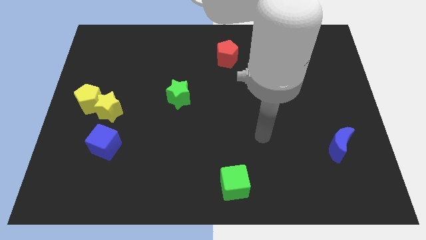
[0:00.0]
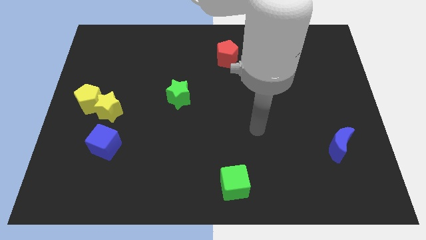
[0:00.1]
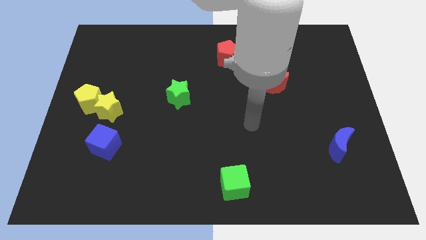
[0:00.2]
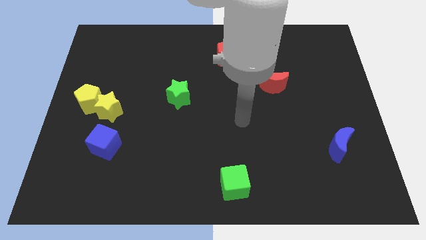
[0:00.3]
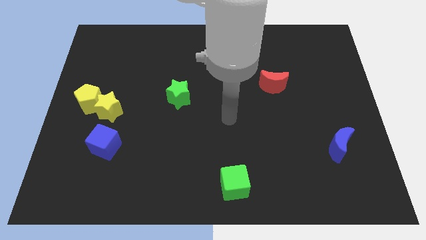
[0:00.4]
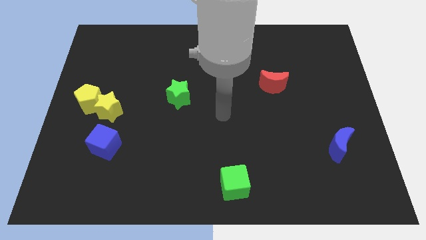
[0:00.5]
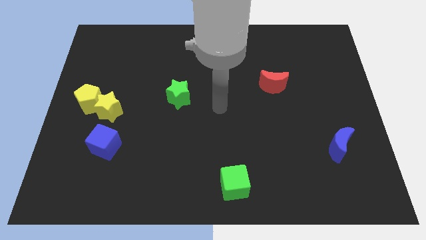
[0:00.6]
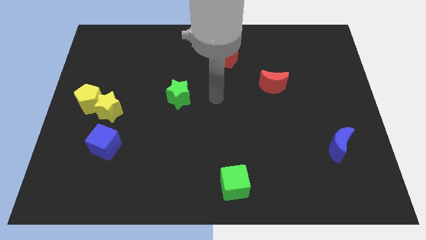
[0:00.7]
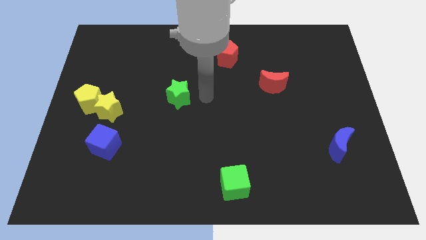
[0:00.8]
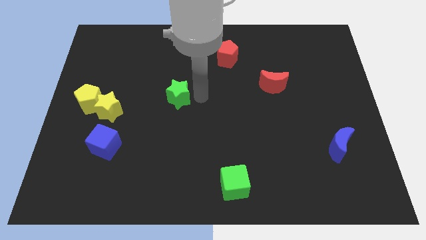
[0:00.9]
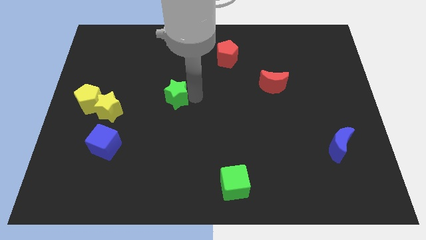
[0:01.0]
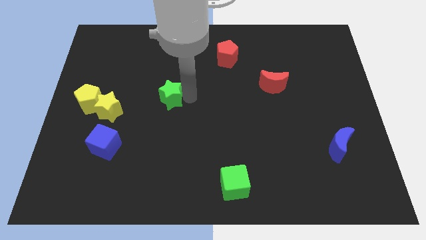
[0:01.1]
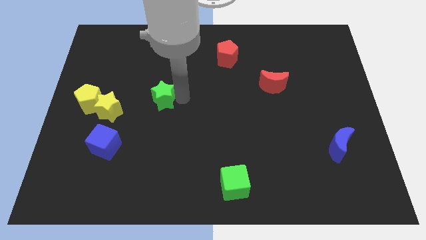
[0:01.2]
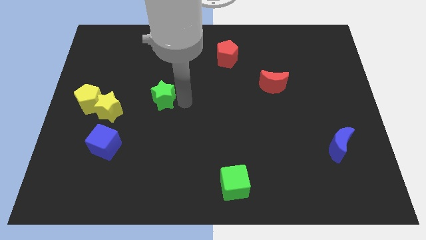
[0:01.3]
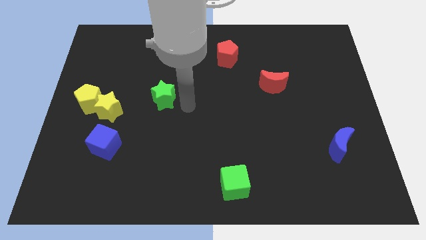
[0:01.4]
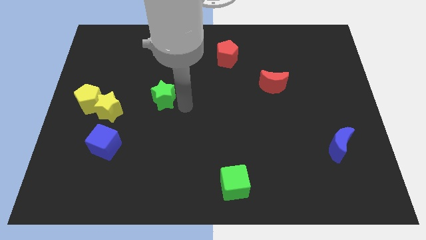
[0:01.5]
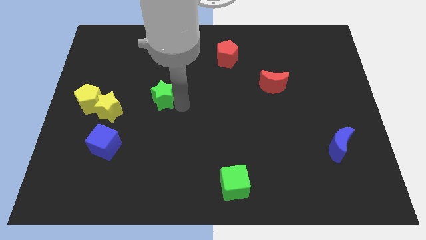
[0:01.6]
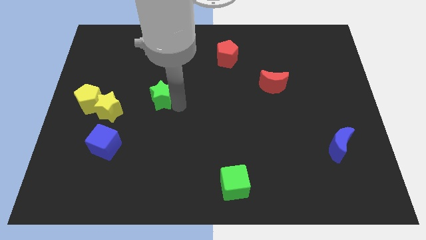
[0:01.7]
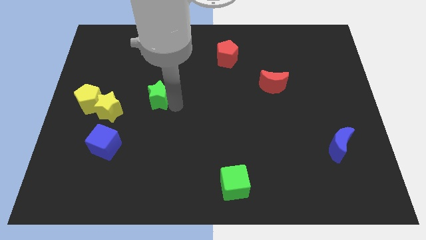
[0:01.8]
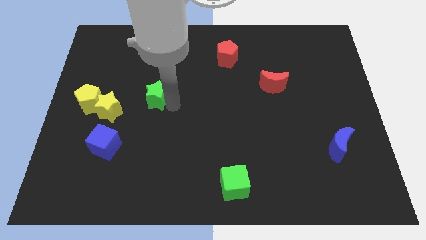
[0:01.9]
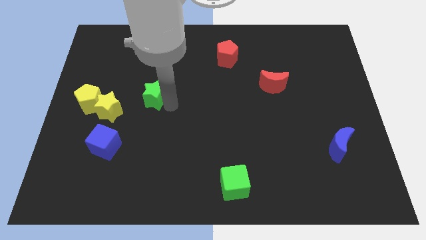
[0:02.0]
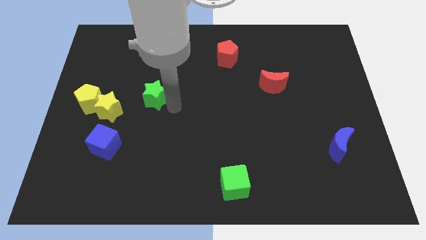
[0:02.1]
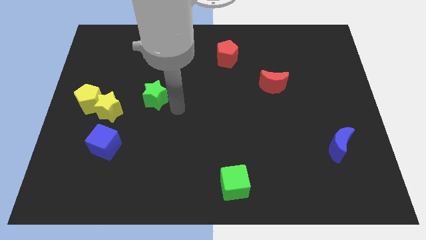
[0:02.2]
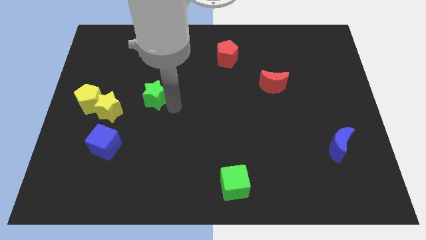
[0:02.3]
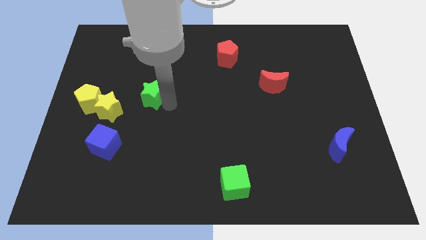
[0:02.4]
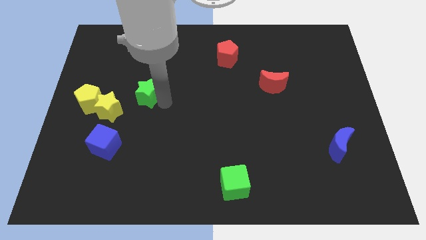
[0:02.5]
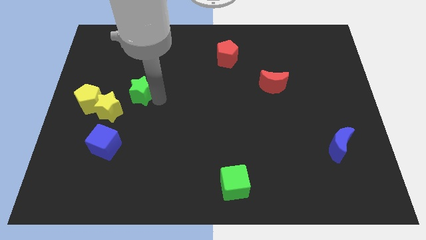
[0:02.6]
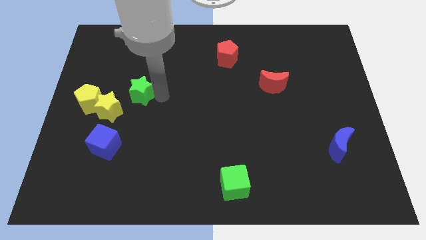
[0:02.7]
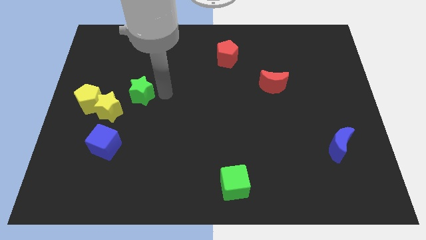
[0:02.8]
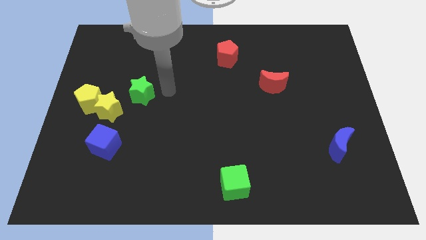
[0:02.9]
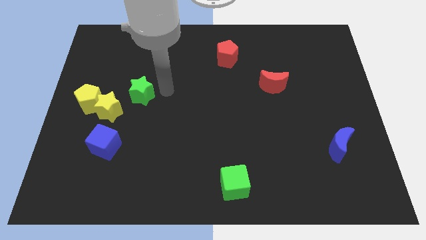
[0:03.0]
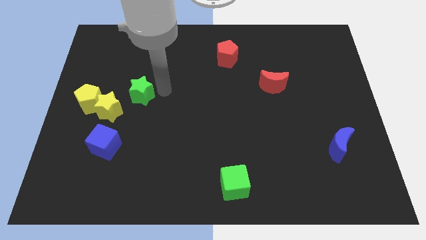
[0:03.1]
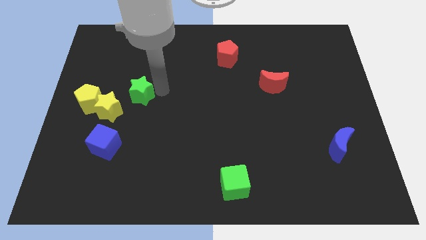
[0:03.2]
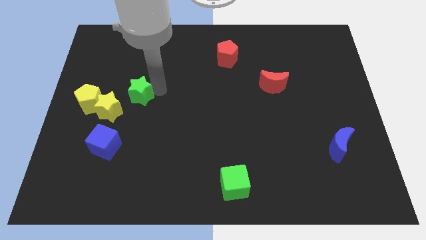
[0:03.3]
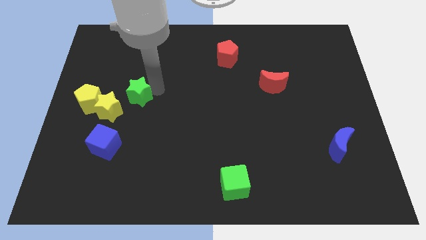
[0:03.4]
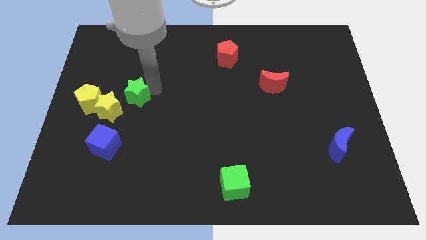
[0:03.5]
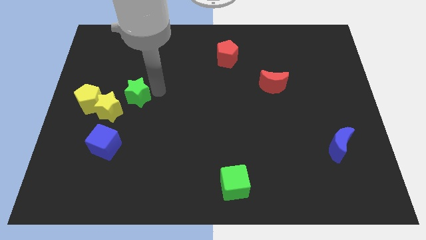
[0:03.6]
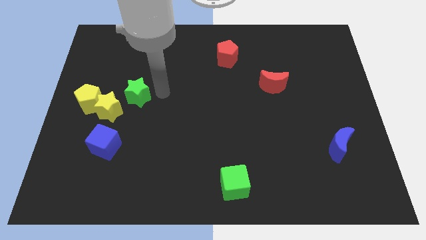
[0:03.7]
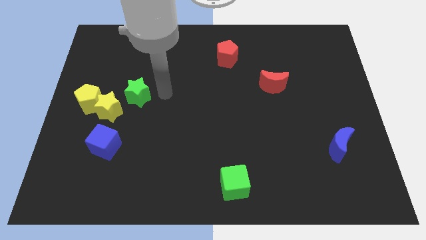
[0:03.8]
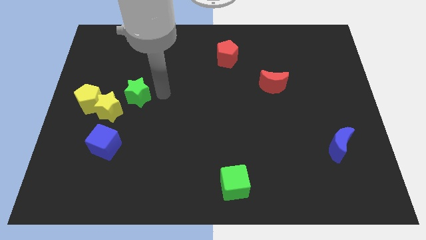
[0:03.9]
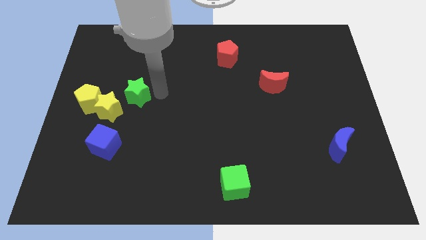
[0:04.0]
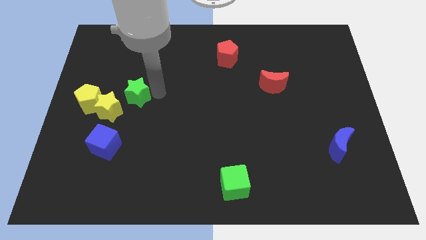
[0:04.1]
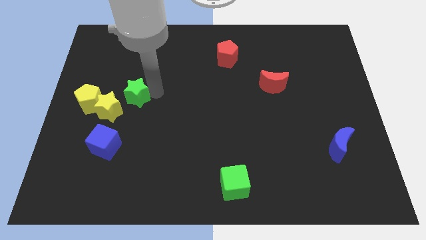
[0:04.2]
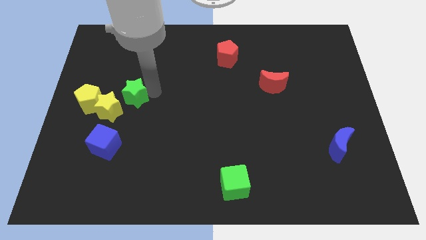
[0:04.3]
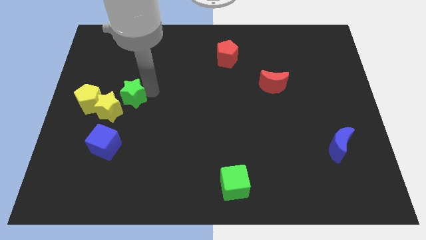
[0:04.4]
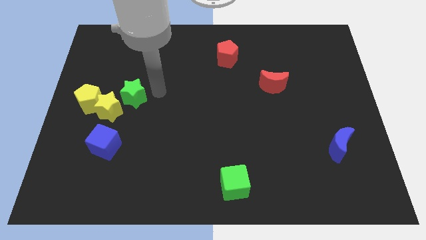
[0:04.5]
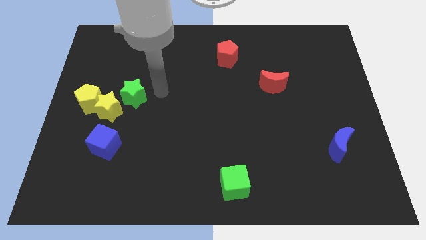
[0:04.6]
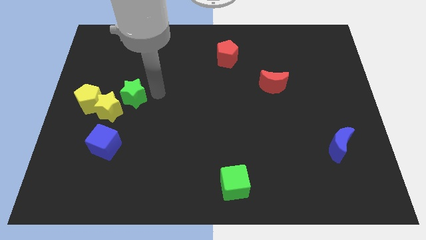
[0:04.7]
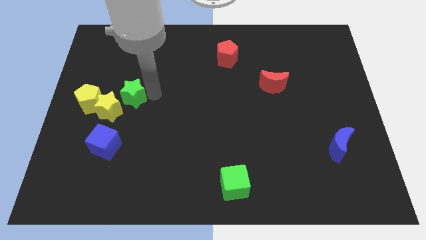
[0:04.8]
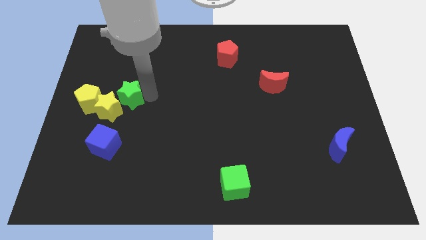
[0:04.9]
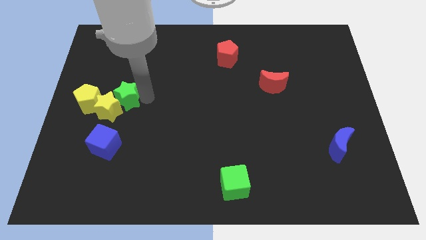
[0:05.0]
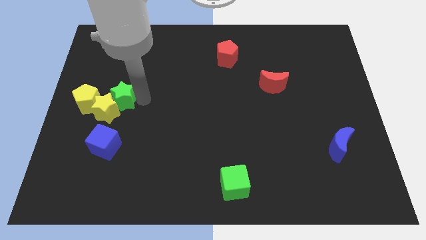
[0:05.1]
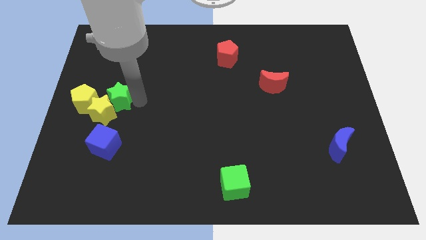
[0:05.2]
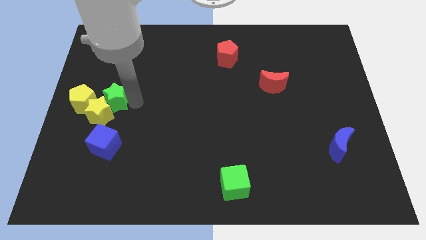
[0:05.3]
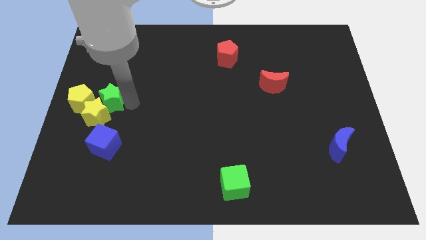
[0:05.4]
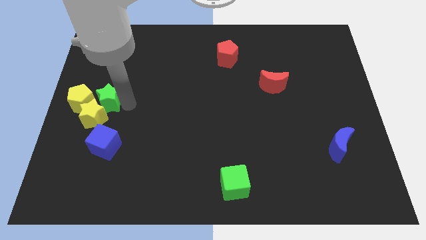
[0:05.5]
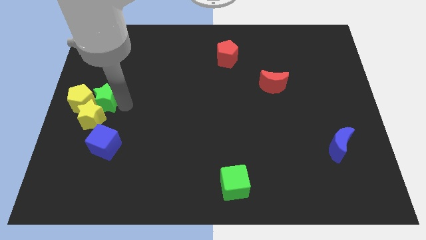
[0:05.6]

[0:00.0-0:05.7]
put the green star to the yellow pentagon

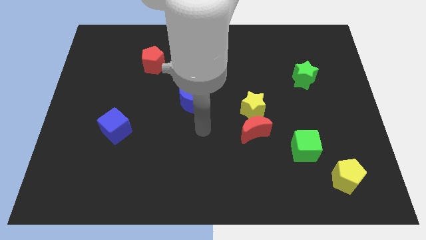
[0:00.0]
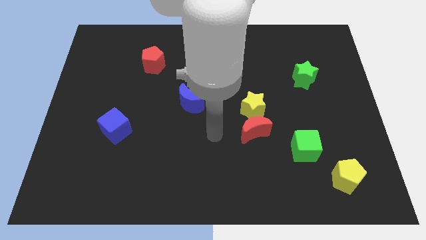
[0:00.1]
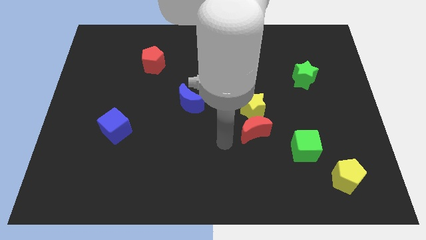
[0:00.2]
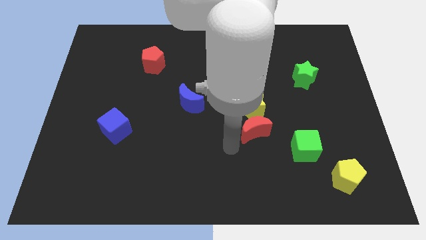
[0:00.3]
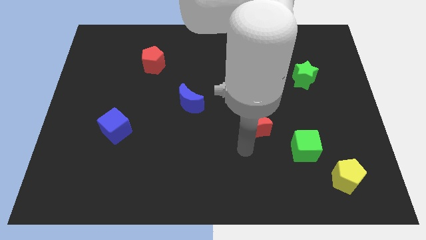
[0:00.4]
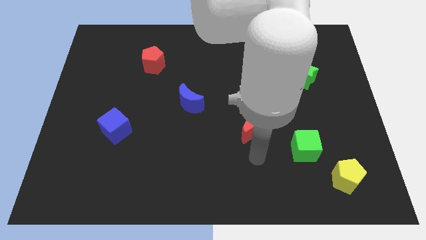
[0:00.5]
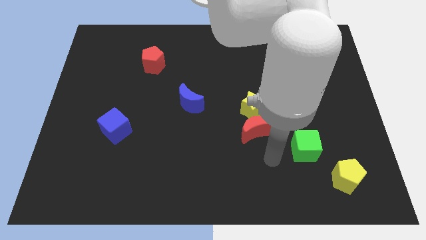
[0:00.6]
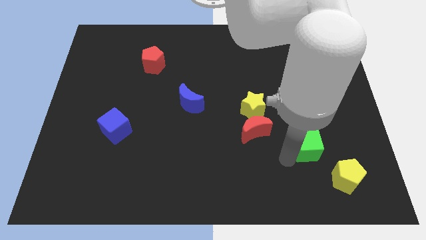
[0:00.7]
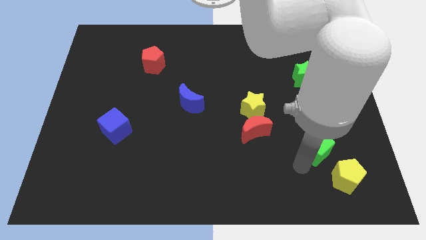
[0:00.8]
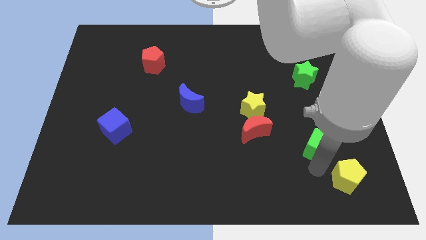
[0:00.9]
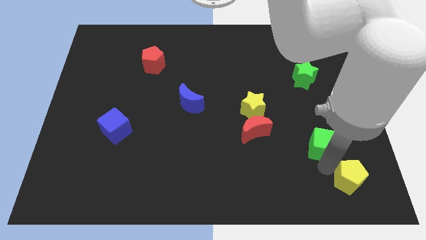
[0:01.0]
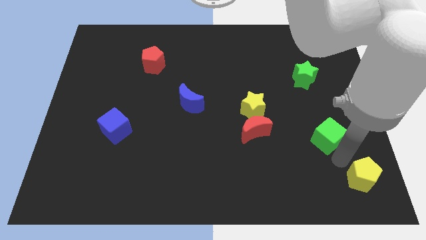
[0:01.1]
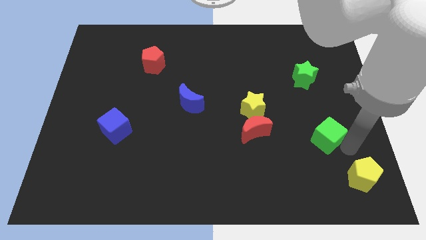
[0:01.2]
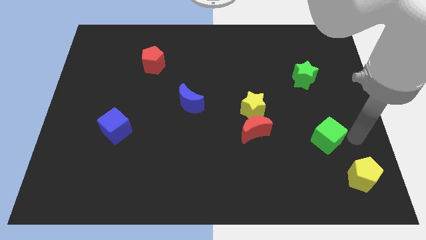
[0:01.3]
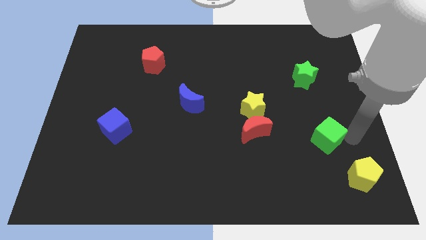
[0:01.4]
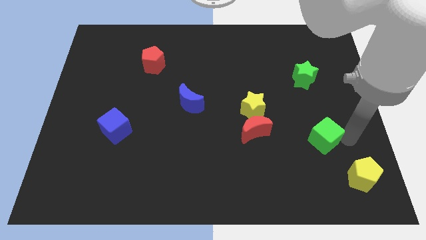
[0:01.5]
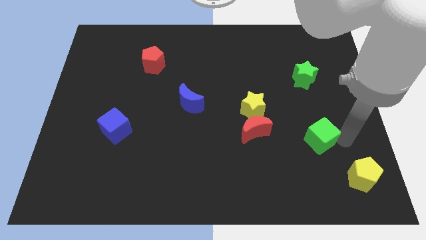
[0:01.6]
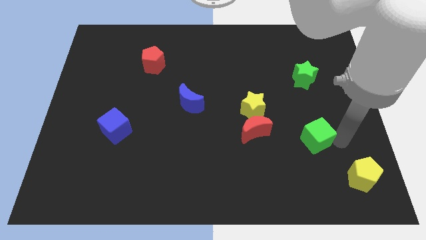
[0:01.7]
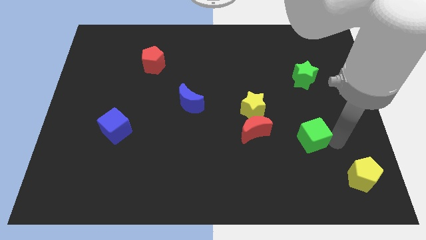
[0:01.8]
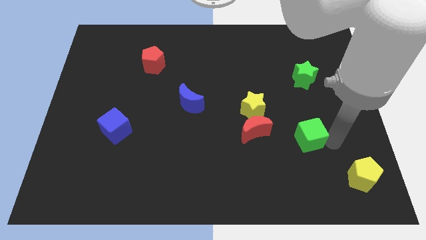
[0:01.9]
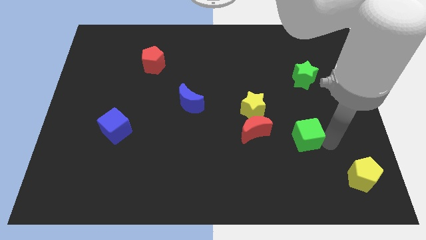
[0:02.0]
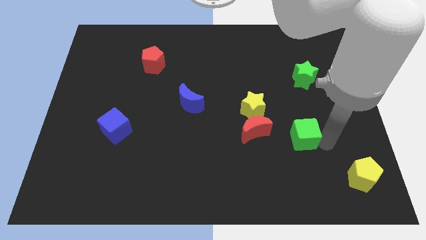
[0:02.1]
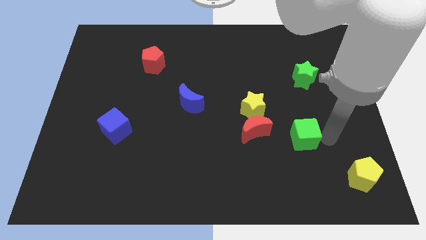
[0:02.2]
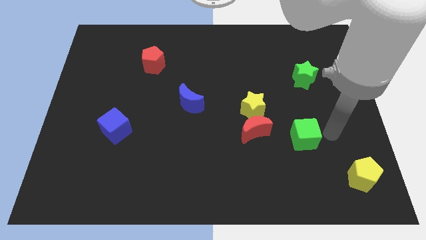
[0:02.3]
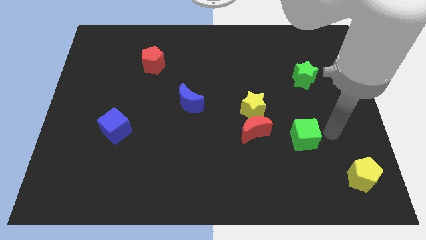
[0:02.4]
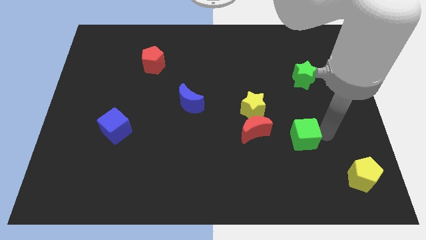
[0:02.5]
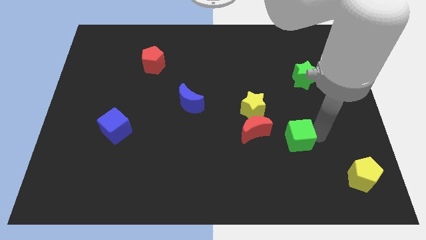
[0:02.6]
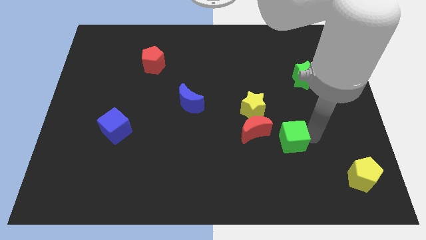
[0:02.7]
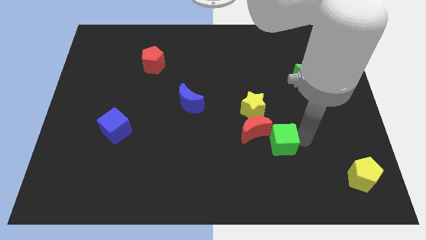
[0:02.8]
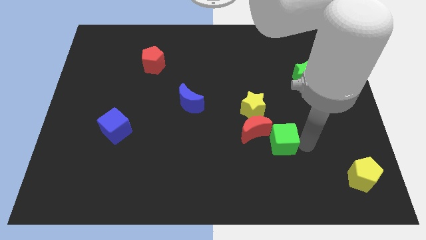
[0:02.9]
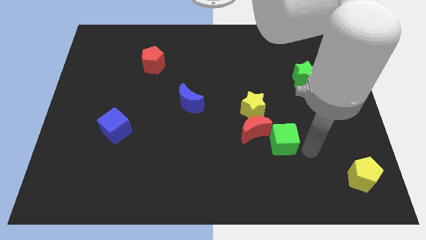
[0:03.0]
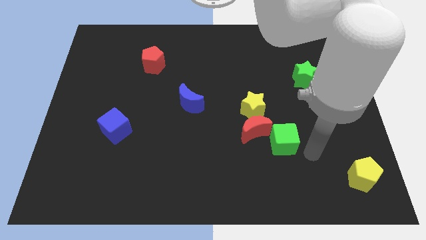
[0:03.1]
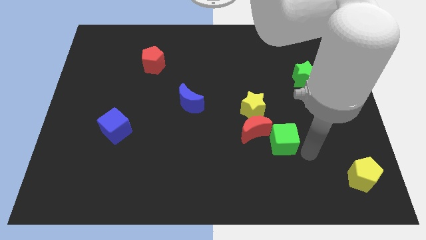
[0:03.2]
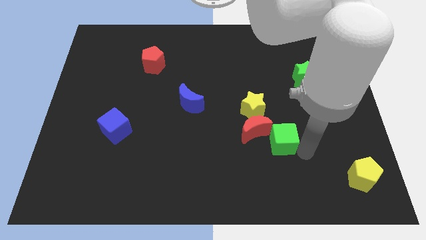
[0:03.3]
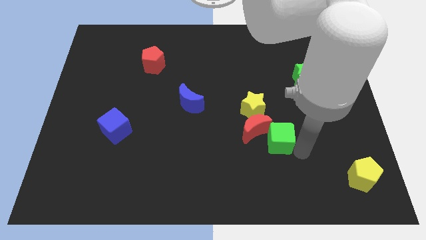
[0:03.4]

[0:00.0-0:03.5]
slide the green cube towards the red moon
